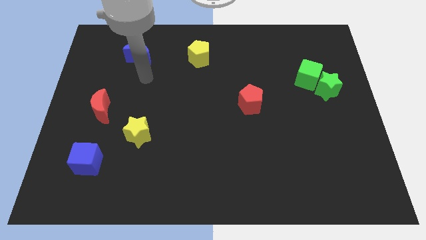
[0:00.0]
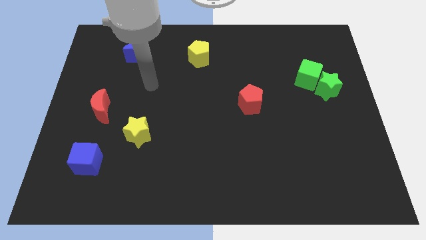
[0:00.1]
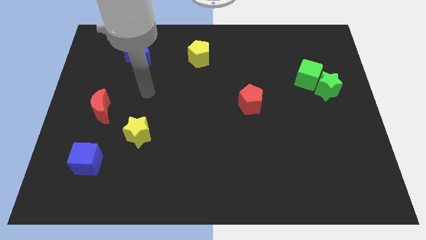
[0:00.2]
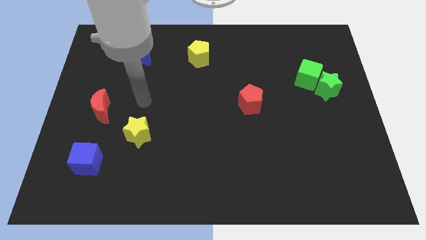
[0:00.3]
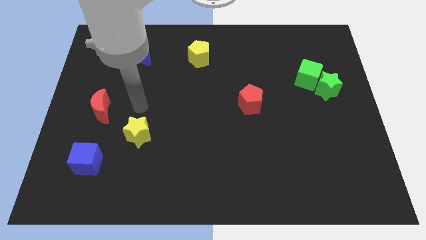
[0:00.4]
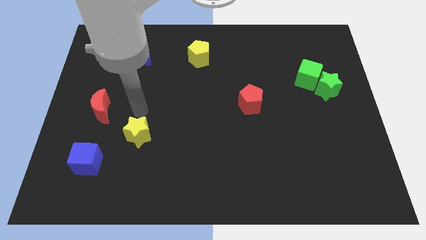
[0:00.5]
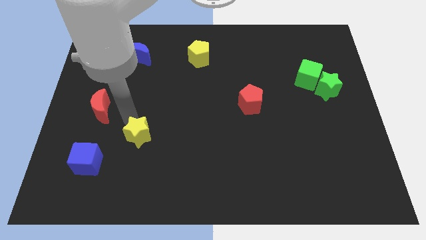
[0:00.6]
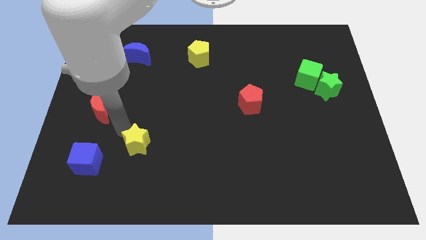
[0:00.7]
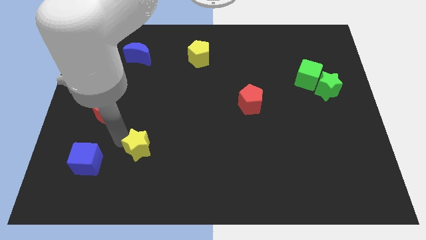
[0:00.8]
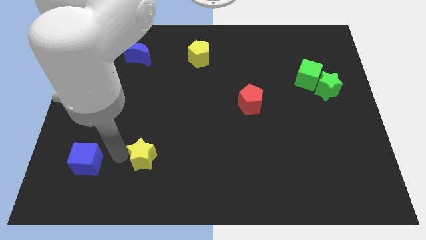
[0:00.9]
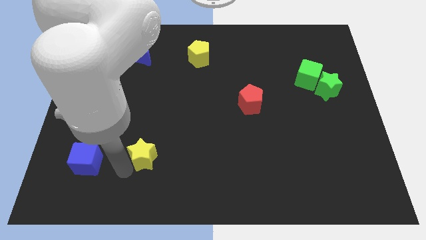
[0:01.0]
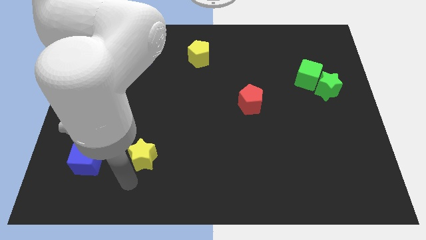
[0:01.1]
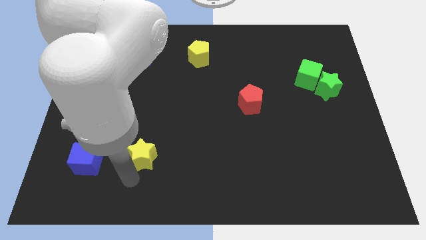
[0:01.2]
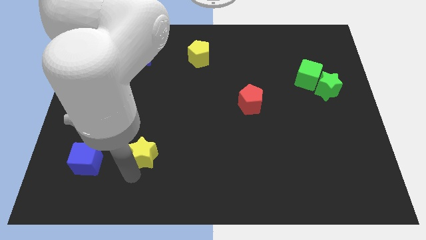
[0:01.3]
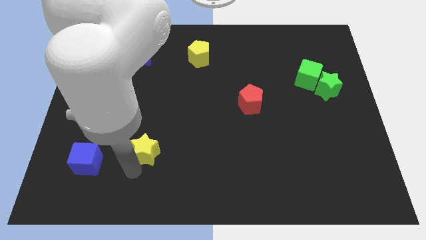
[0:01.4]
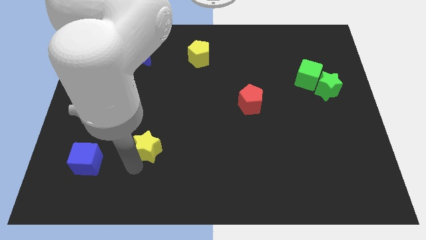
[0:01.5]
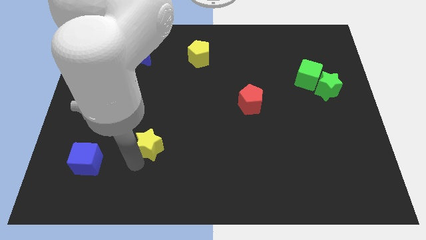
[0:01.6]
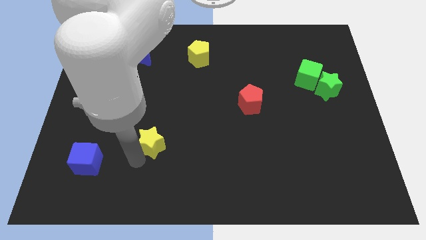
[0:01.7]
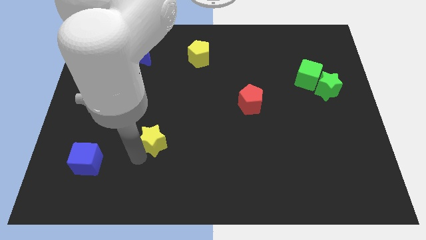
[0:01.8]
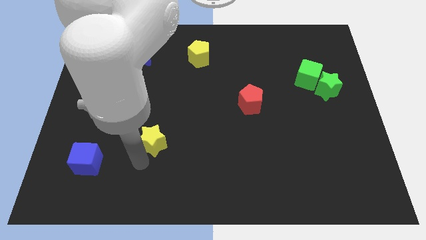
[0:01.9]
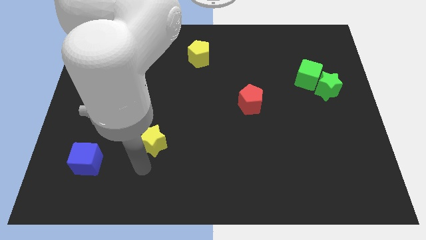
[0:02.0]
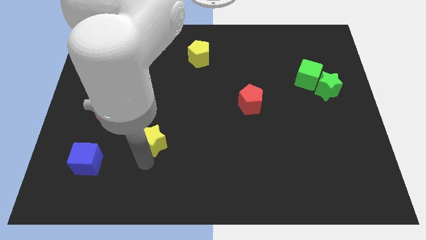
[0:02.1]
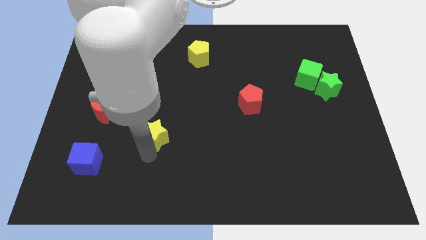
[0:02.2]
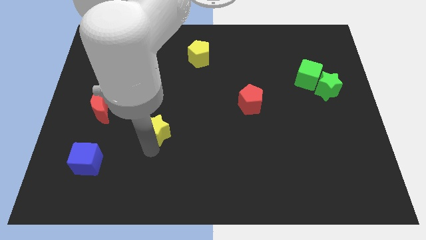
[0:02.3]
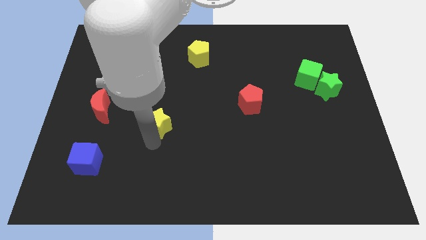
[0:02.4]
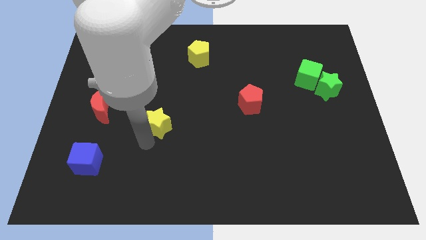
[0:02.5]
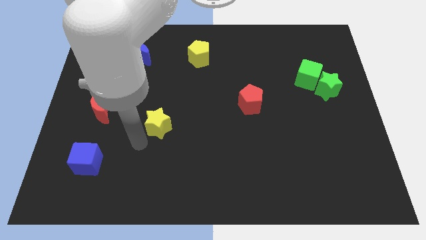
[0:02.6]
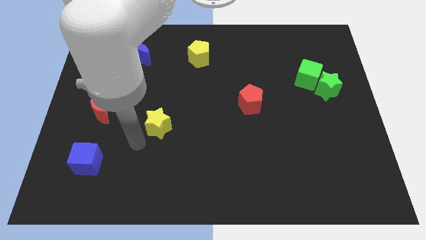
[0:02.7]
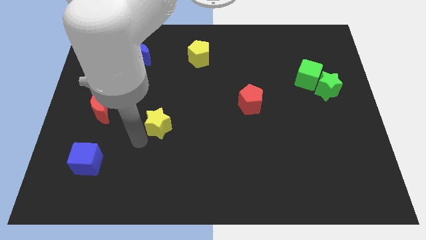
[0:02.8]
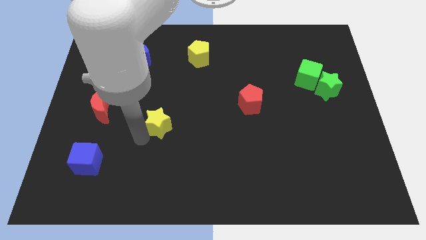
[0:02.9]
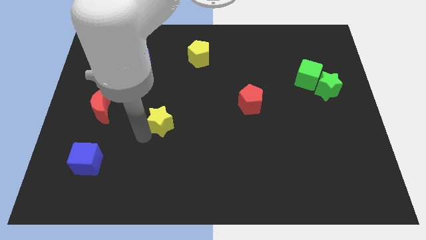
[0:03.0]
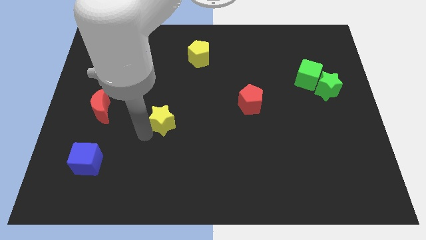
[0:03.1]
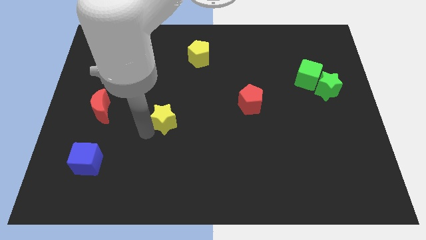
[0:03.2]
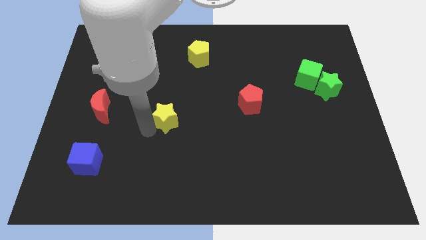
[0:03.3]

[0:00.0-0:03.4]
push the yellow star a little bit diagonally upwards and to the right

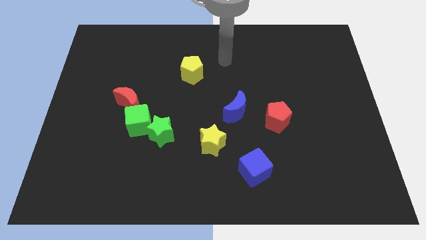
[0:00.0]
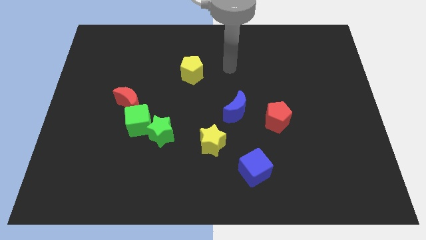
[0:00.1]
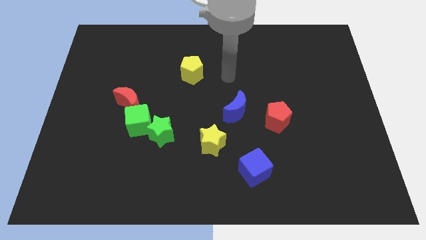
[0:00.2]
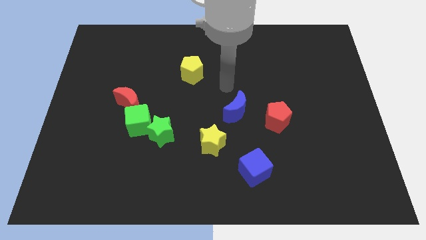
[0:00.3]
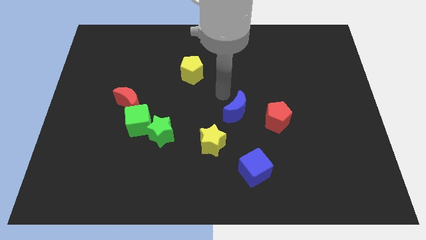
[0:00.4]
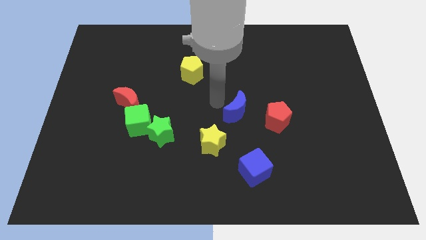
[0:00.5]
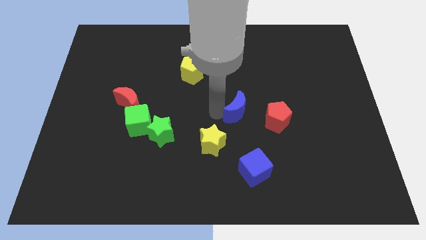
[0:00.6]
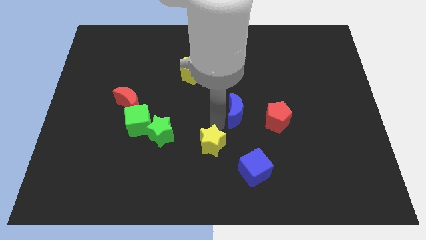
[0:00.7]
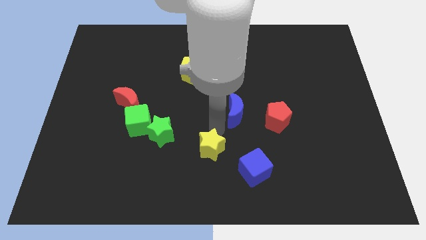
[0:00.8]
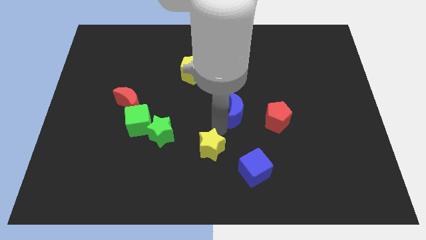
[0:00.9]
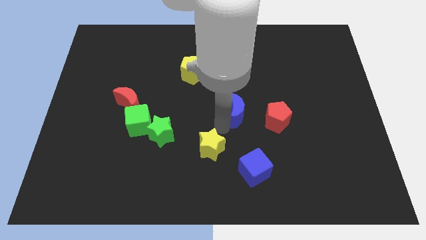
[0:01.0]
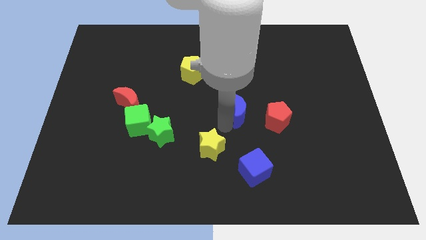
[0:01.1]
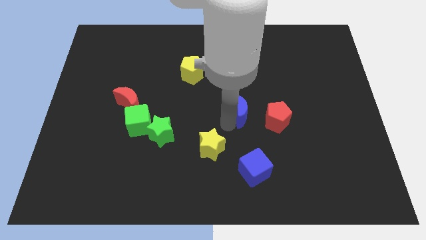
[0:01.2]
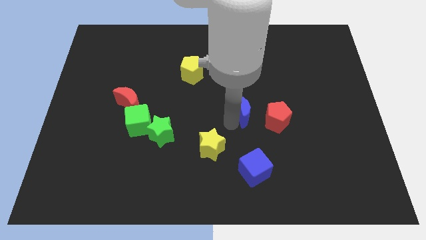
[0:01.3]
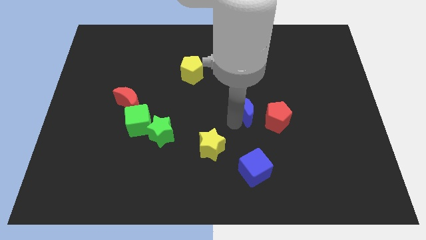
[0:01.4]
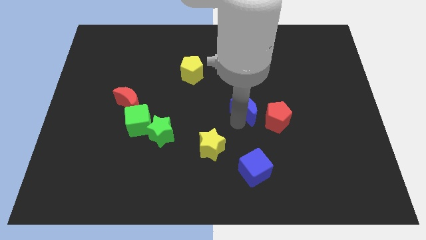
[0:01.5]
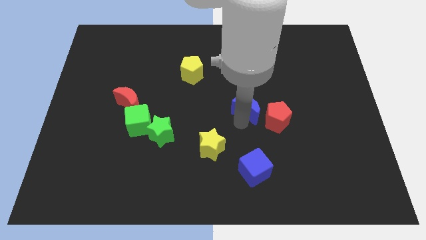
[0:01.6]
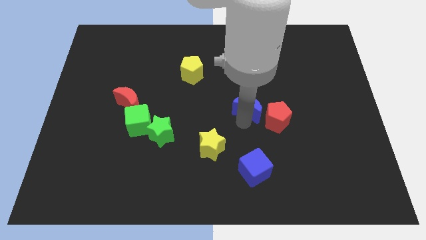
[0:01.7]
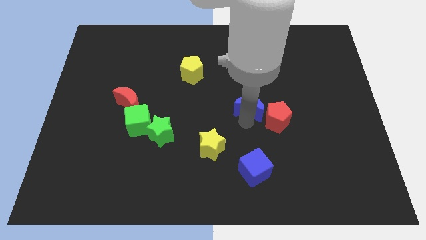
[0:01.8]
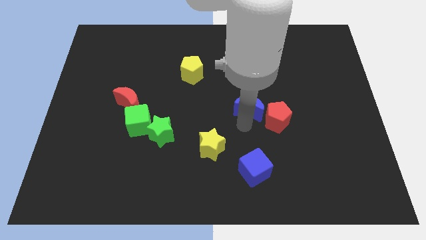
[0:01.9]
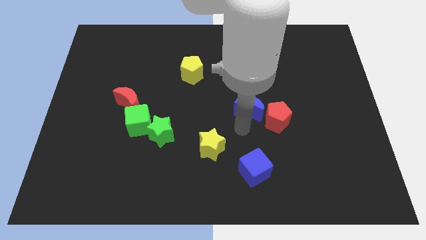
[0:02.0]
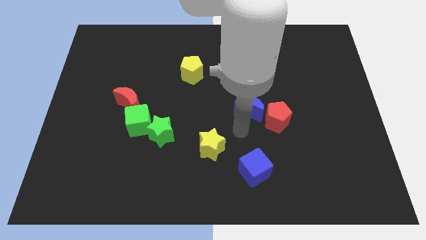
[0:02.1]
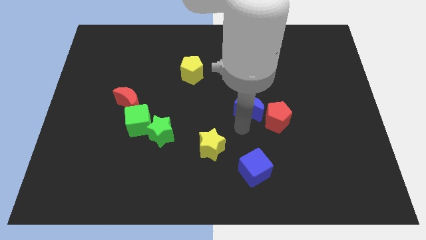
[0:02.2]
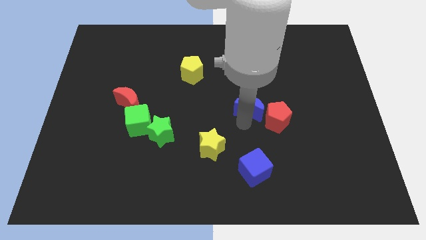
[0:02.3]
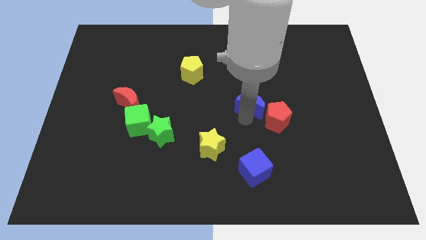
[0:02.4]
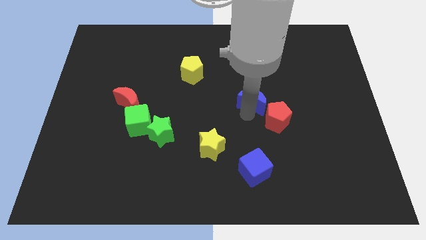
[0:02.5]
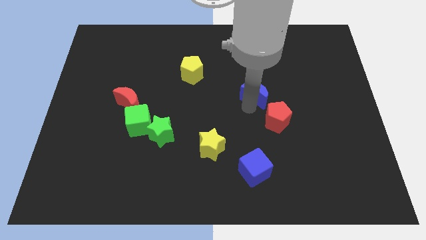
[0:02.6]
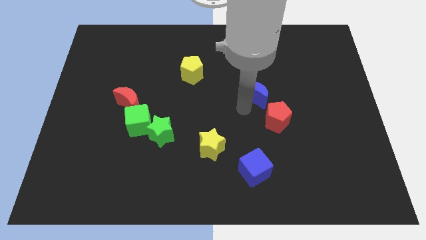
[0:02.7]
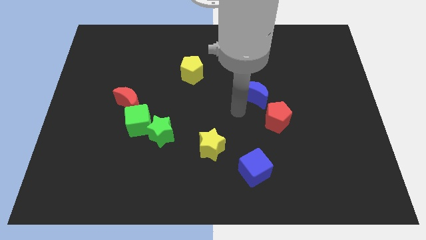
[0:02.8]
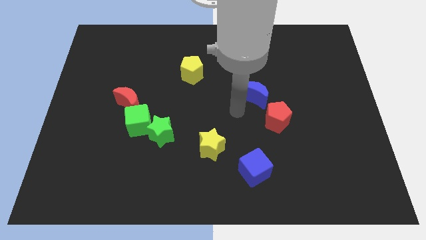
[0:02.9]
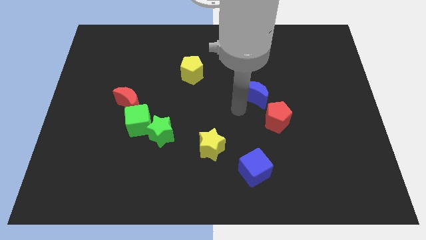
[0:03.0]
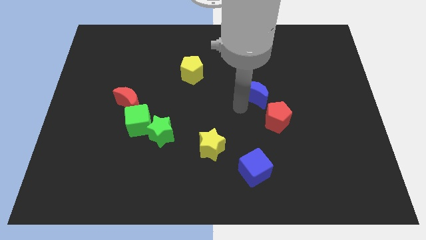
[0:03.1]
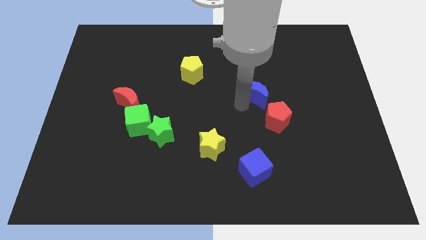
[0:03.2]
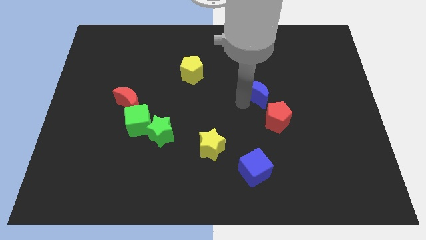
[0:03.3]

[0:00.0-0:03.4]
move the blue moon a little bit diagonally up and to the right

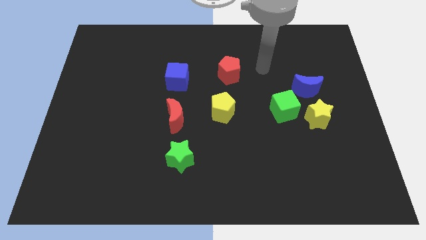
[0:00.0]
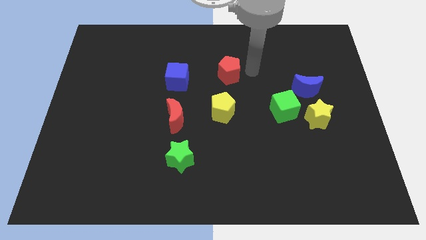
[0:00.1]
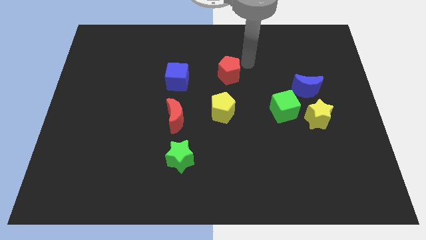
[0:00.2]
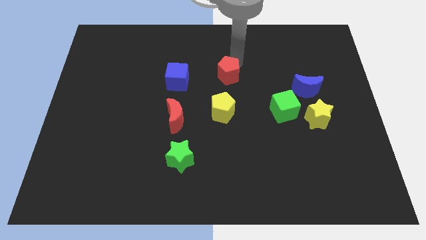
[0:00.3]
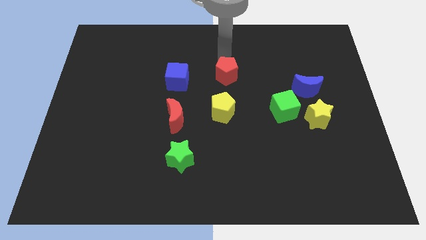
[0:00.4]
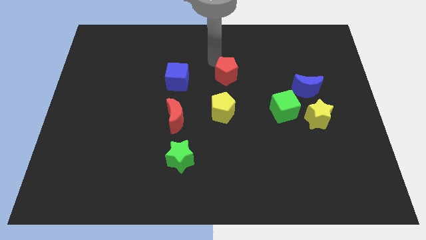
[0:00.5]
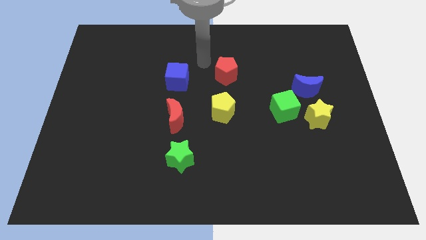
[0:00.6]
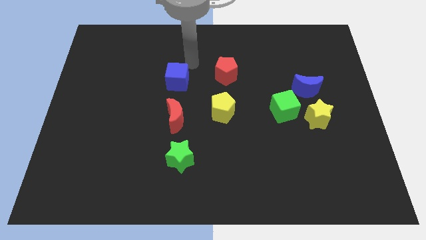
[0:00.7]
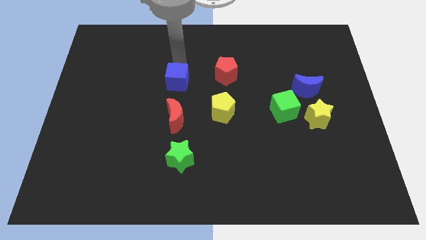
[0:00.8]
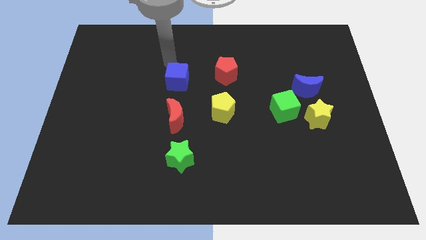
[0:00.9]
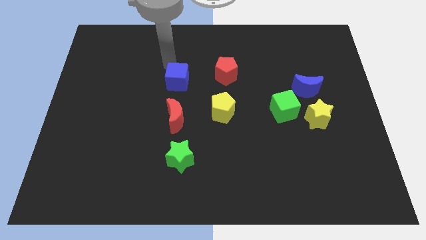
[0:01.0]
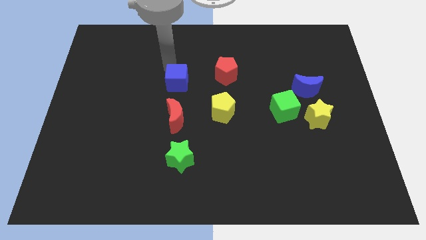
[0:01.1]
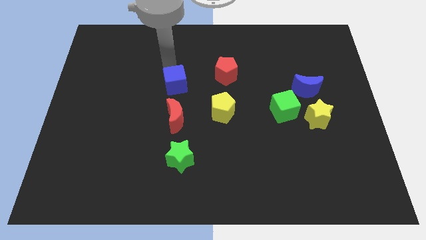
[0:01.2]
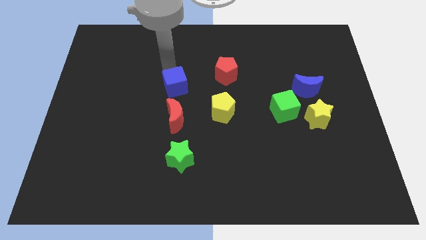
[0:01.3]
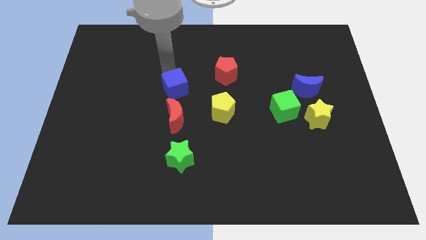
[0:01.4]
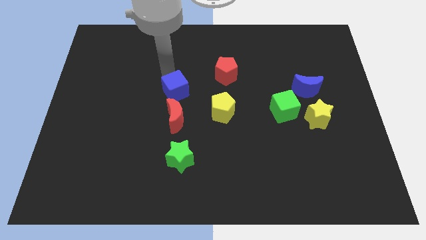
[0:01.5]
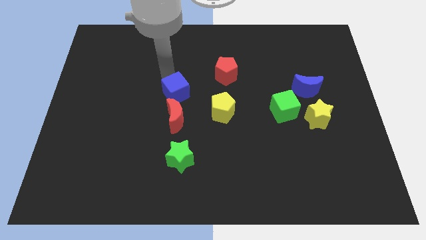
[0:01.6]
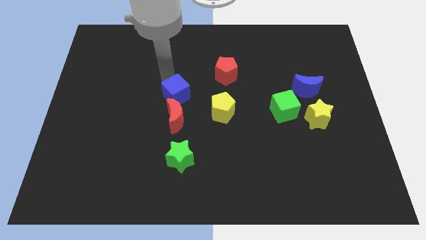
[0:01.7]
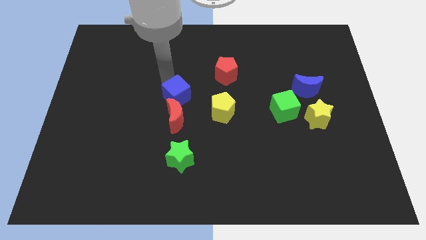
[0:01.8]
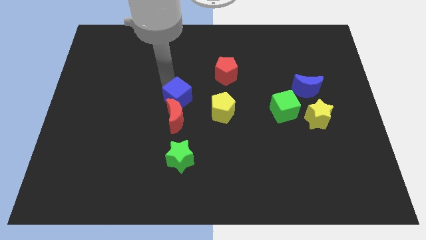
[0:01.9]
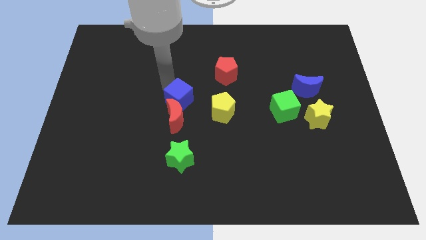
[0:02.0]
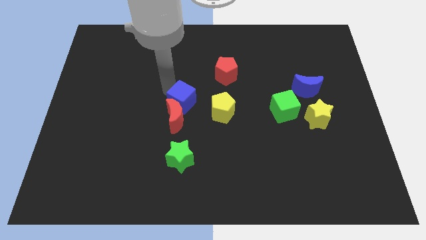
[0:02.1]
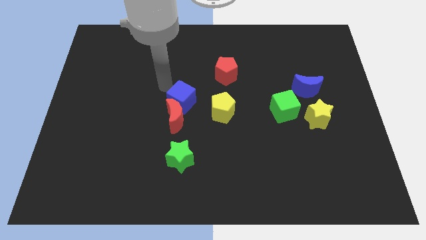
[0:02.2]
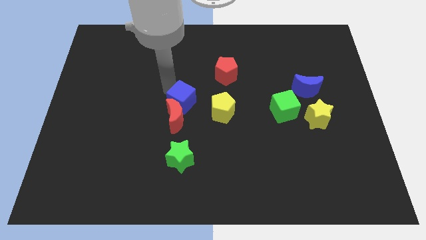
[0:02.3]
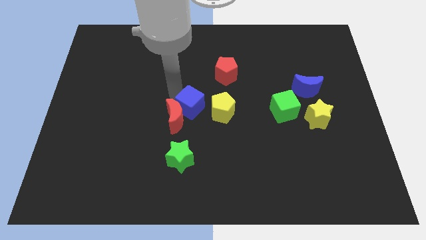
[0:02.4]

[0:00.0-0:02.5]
slightly move the blue cube downwards and right diagonally
